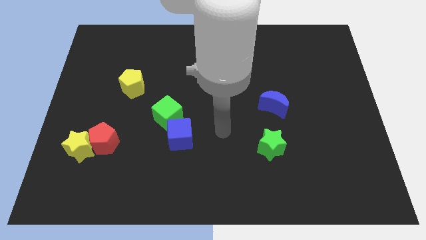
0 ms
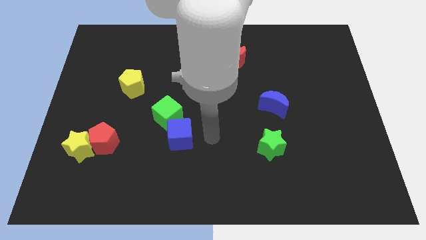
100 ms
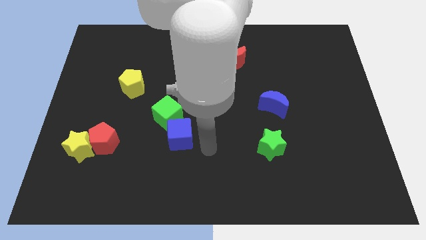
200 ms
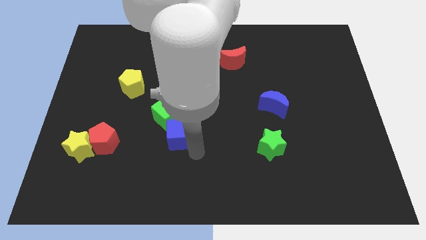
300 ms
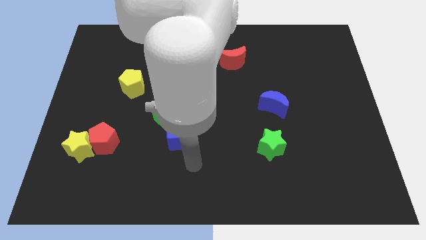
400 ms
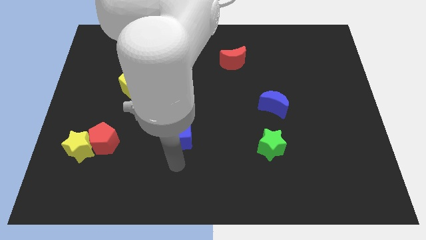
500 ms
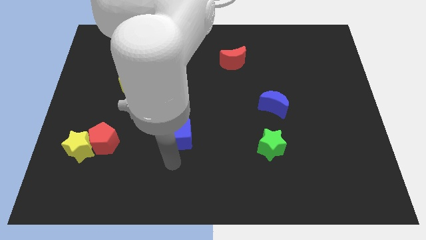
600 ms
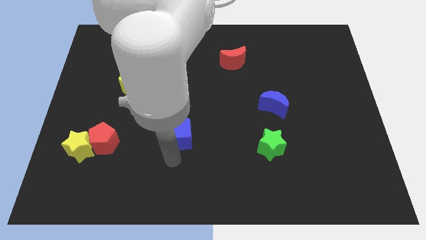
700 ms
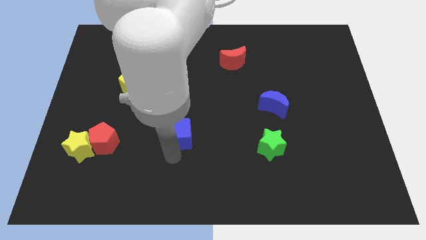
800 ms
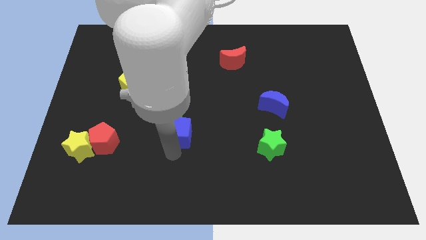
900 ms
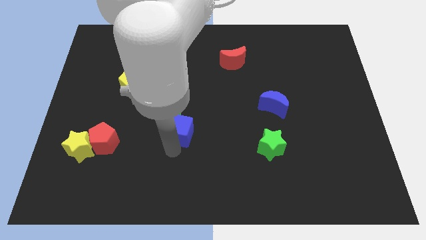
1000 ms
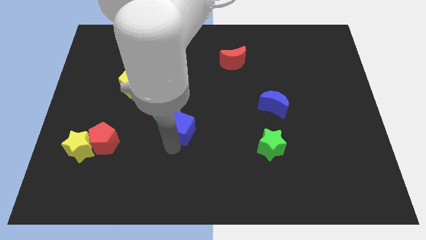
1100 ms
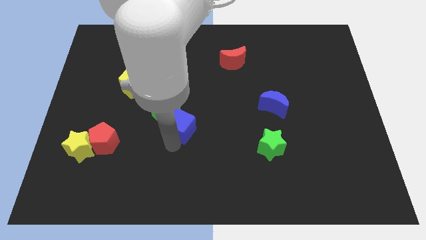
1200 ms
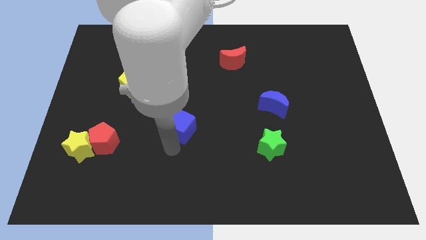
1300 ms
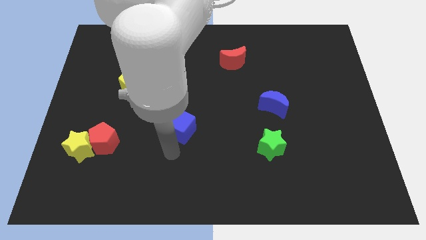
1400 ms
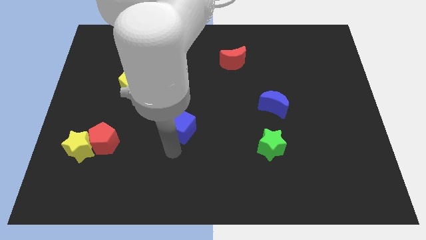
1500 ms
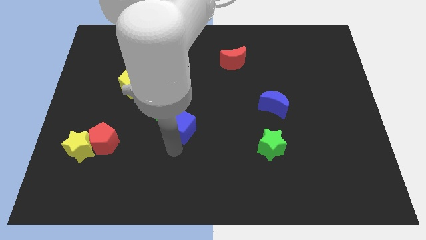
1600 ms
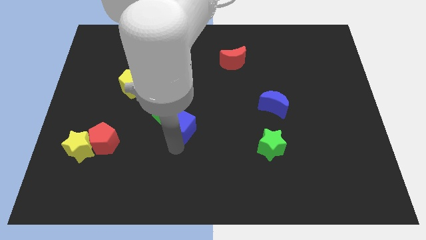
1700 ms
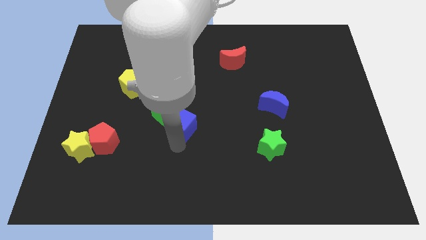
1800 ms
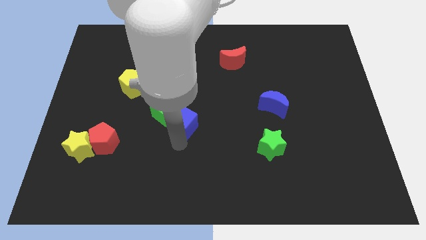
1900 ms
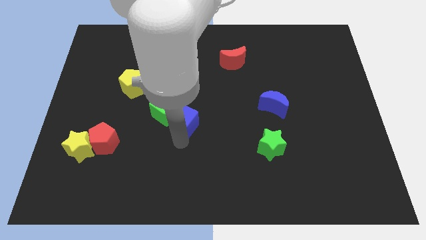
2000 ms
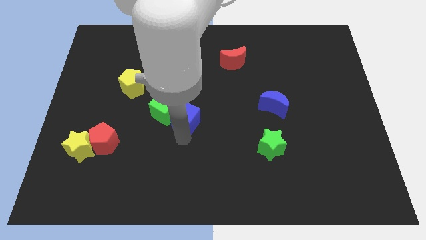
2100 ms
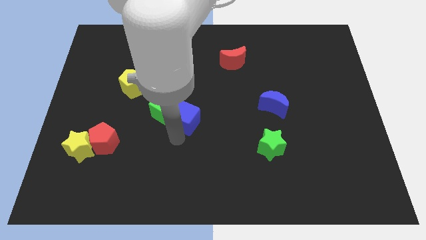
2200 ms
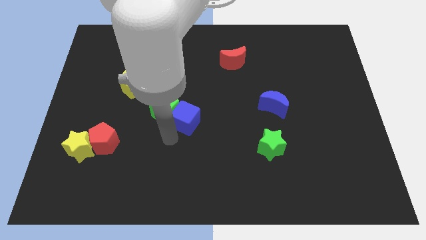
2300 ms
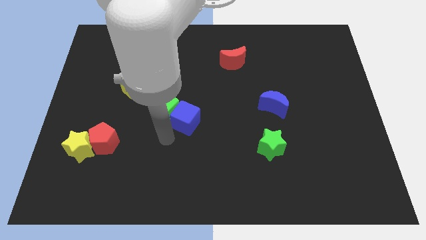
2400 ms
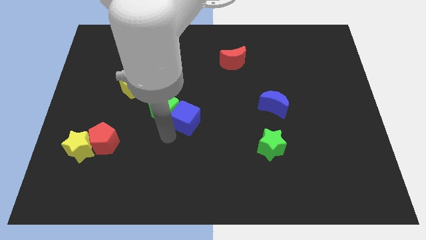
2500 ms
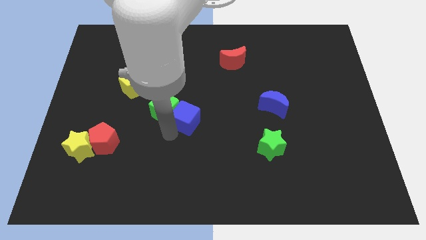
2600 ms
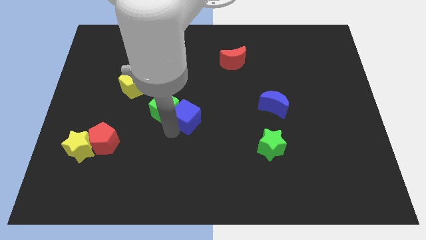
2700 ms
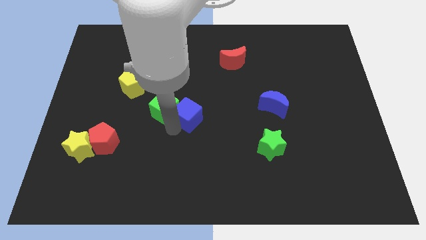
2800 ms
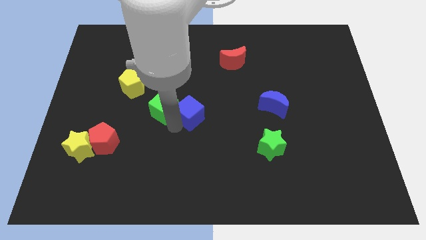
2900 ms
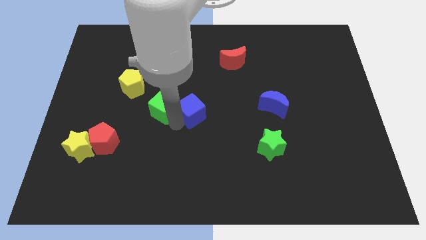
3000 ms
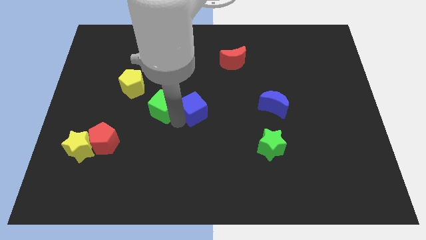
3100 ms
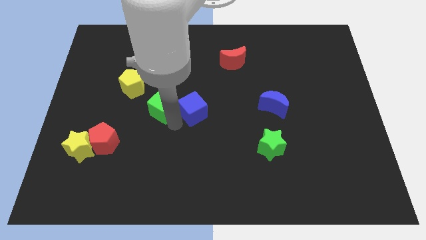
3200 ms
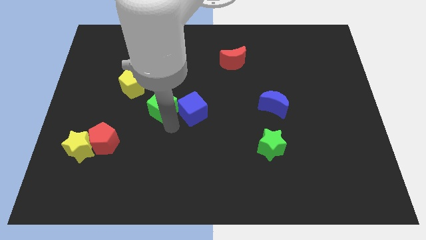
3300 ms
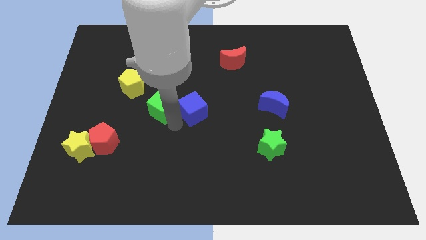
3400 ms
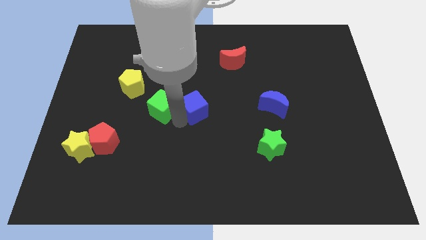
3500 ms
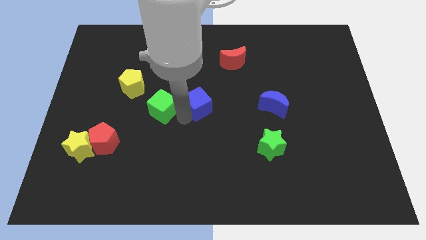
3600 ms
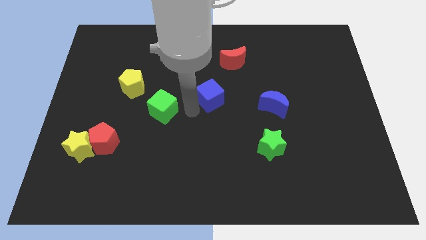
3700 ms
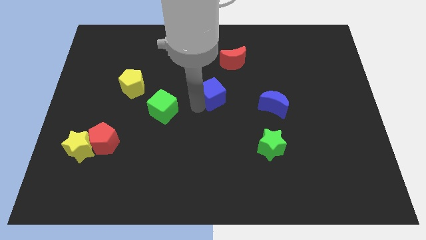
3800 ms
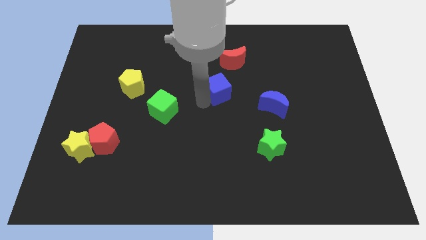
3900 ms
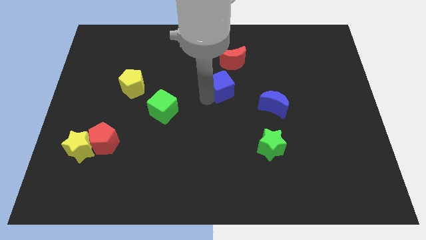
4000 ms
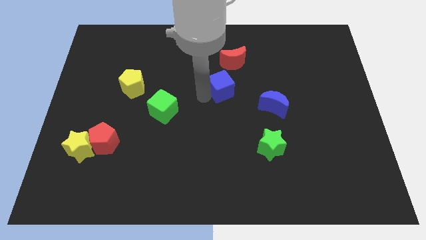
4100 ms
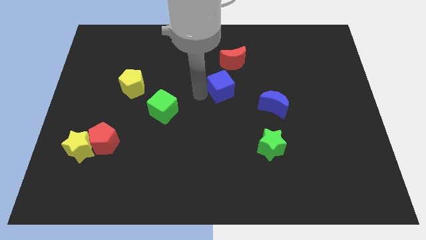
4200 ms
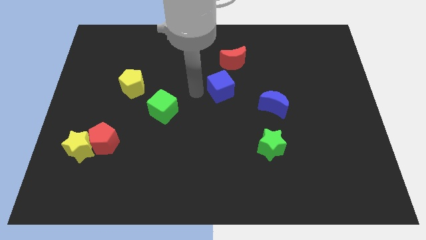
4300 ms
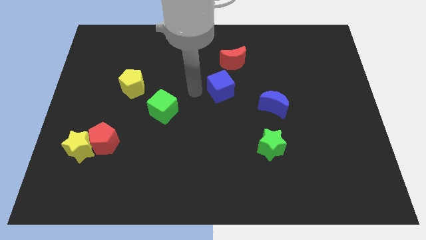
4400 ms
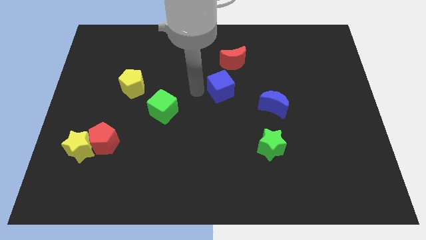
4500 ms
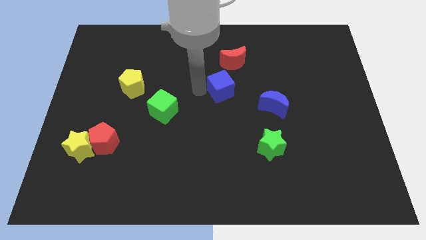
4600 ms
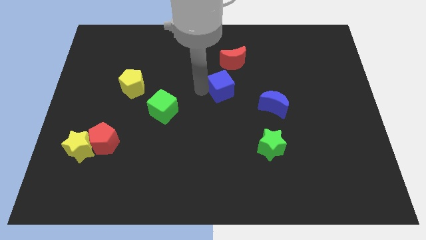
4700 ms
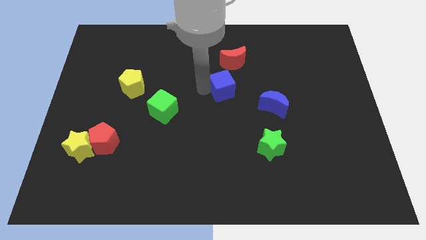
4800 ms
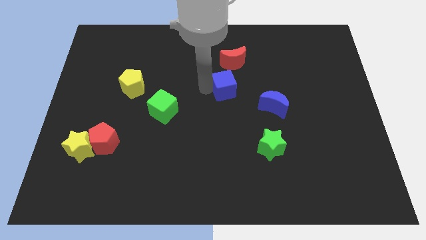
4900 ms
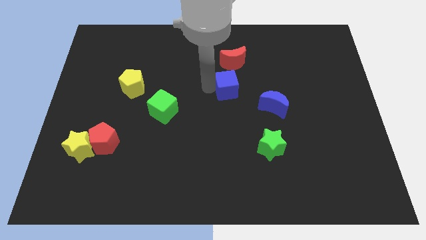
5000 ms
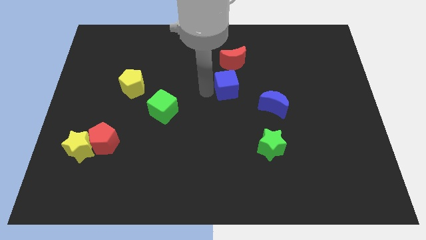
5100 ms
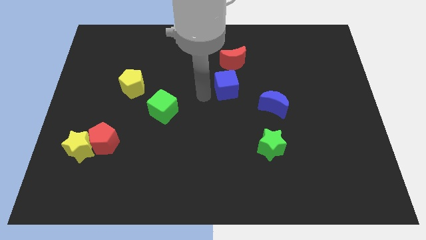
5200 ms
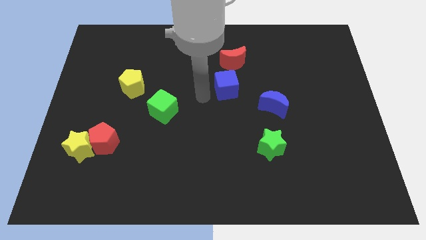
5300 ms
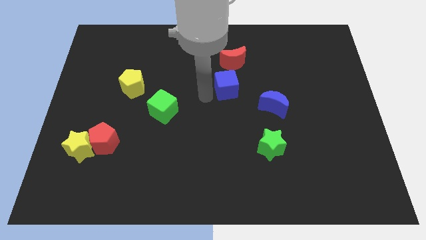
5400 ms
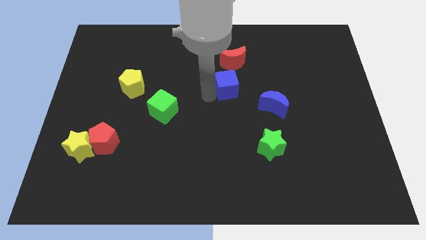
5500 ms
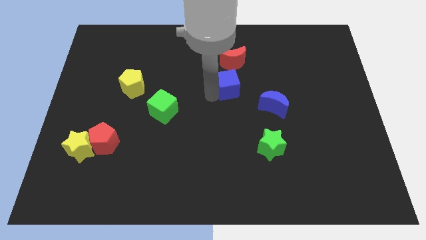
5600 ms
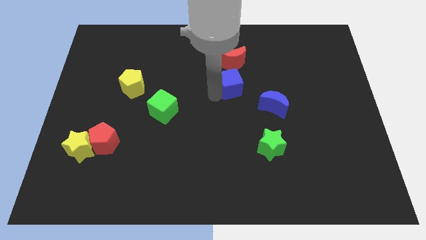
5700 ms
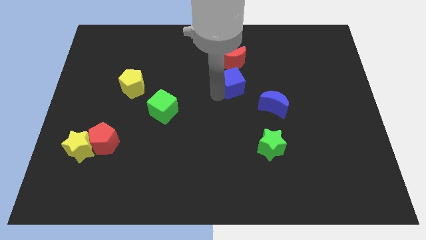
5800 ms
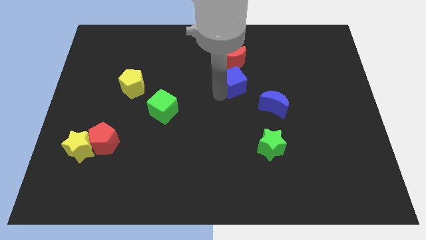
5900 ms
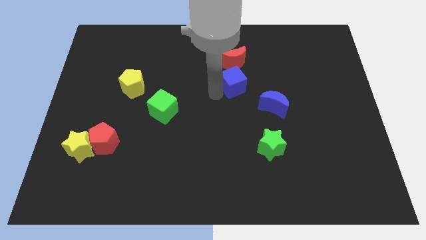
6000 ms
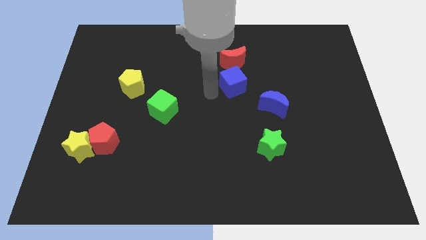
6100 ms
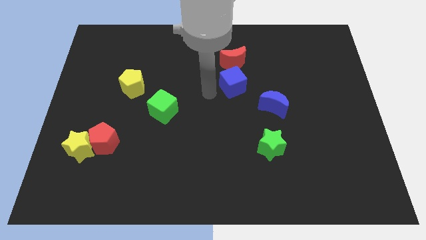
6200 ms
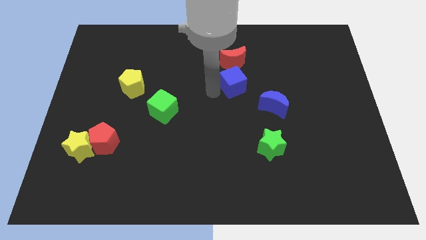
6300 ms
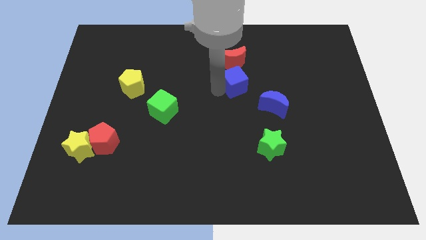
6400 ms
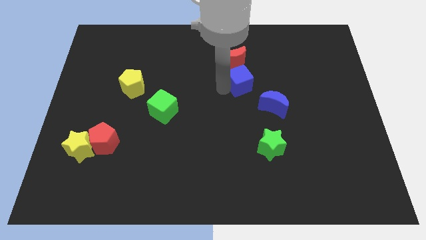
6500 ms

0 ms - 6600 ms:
move the blue cube upwards and then to the right

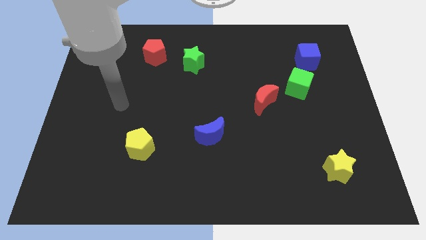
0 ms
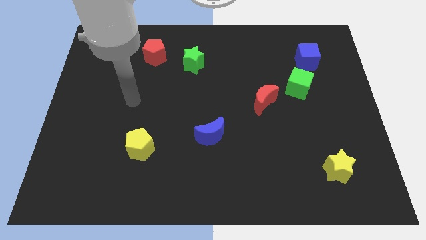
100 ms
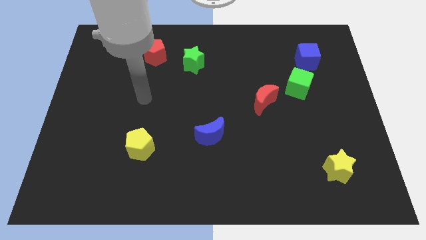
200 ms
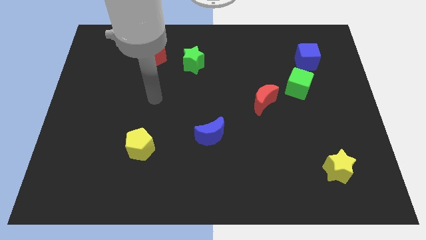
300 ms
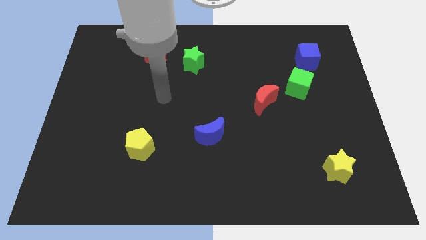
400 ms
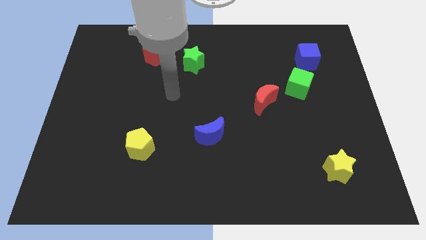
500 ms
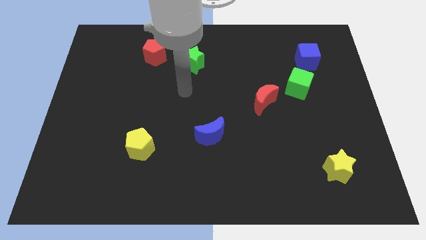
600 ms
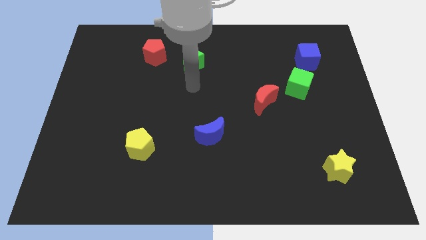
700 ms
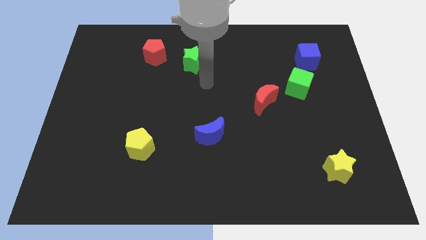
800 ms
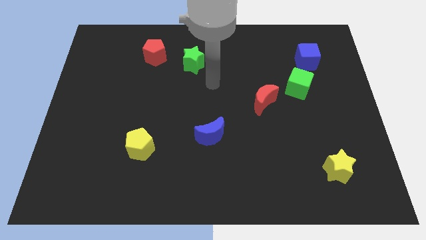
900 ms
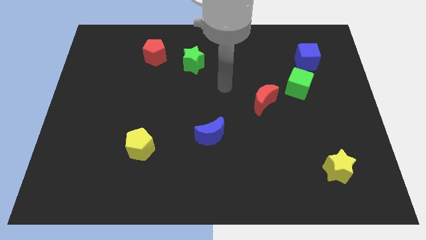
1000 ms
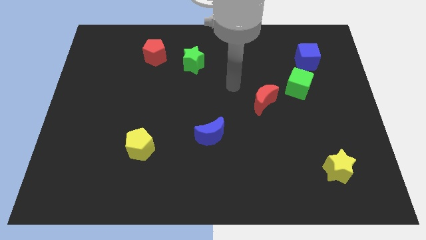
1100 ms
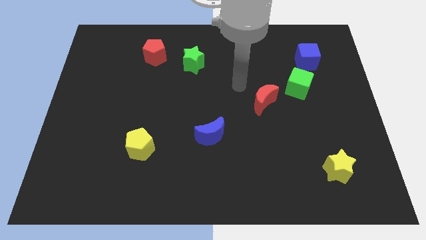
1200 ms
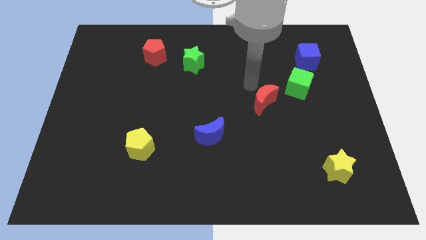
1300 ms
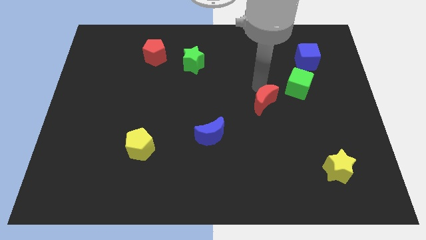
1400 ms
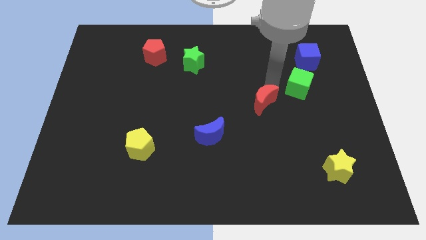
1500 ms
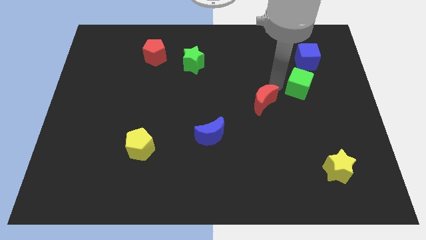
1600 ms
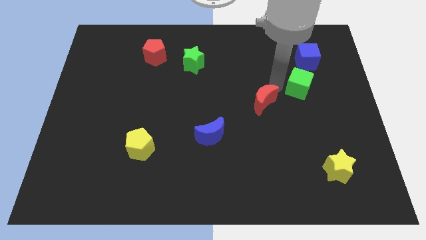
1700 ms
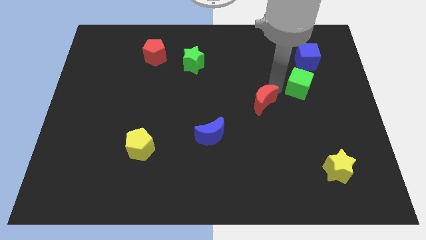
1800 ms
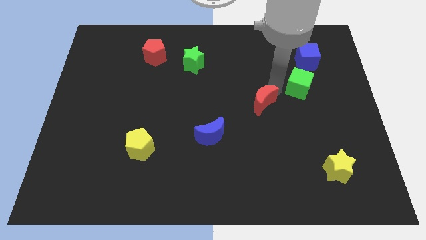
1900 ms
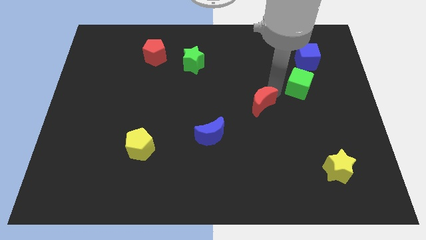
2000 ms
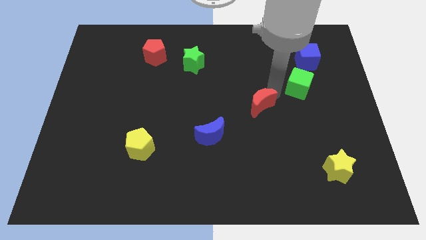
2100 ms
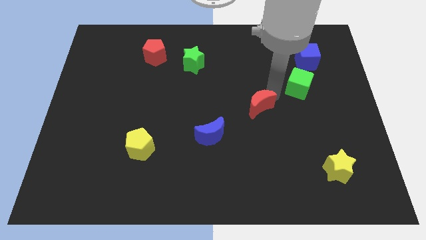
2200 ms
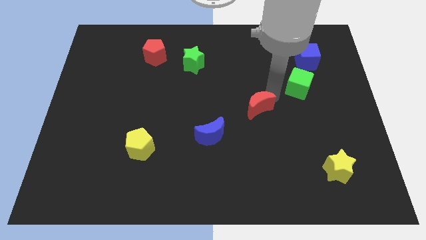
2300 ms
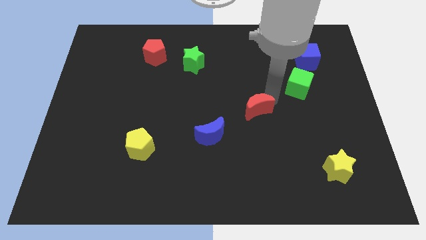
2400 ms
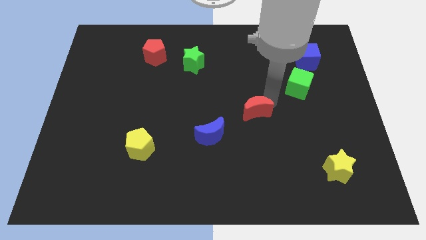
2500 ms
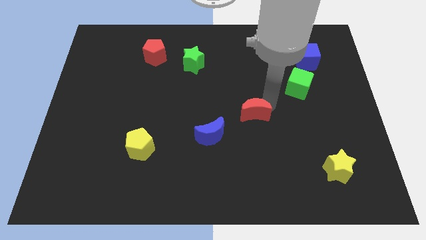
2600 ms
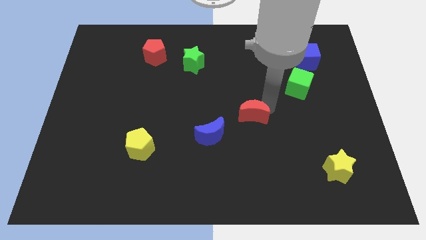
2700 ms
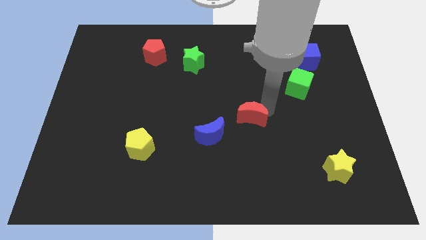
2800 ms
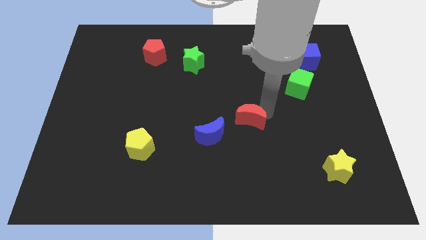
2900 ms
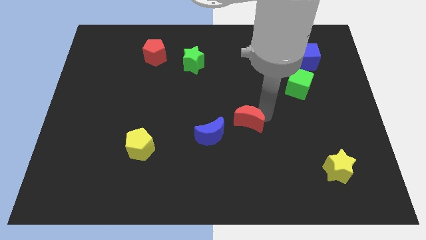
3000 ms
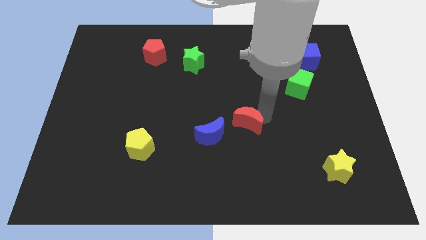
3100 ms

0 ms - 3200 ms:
move the red moon somewhat downwards and left diagonally
